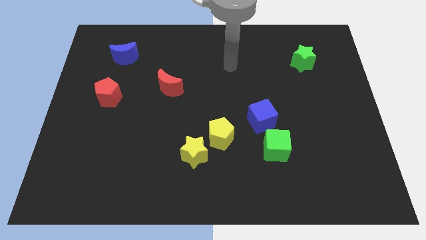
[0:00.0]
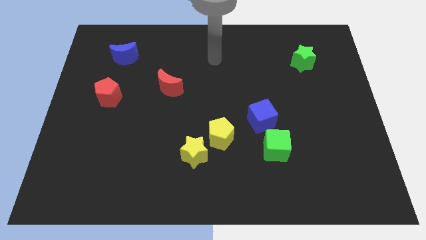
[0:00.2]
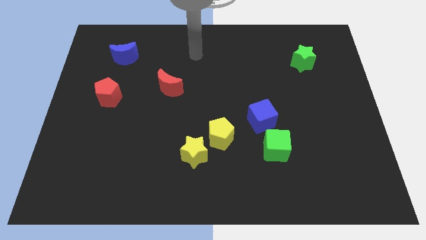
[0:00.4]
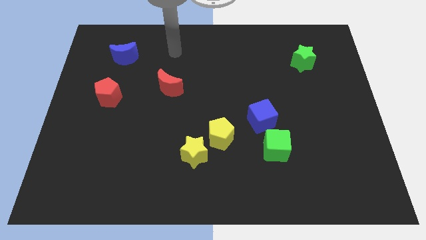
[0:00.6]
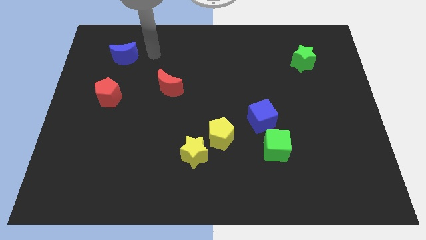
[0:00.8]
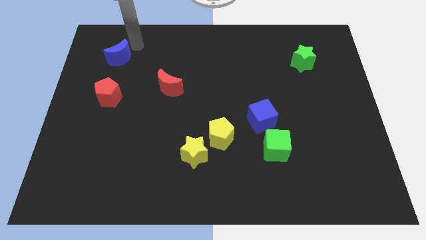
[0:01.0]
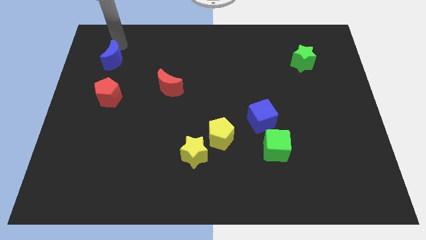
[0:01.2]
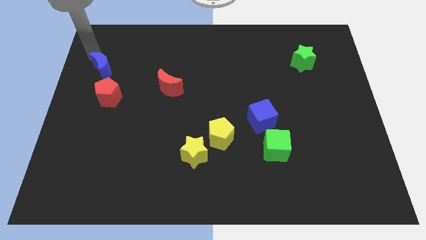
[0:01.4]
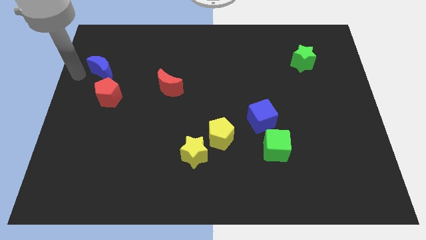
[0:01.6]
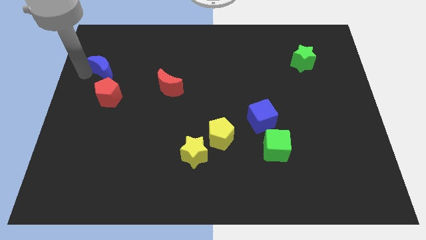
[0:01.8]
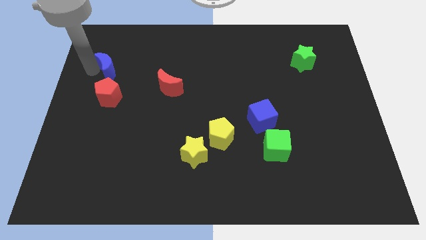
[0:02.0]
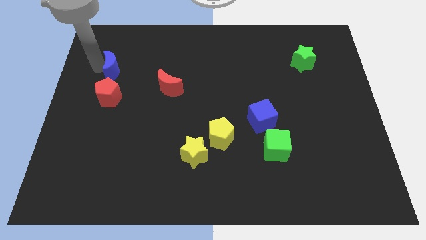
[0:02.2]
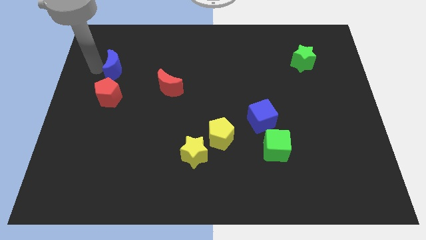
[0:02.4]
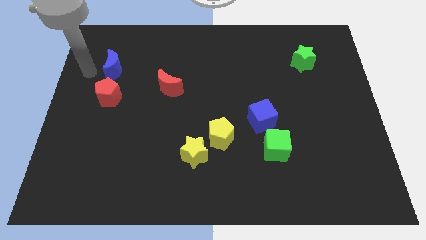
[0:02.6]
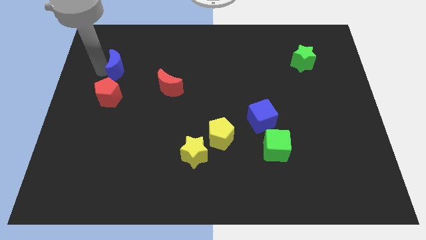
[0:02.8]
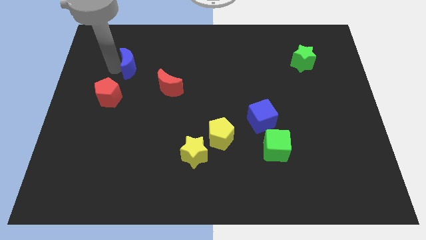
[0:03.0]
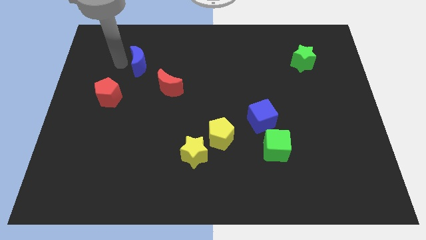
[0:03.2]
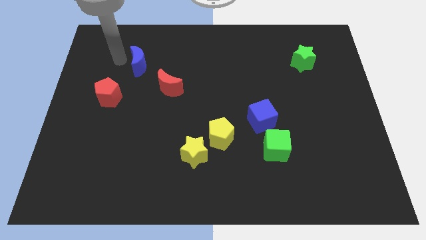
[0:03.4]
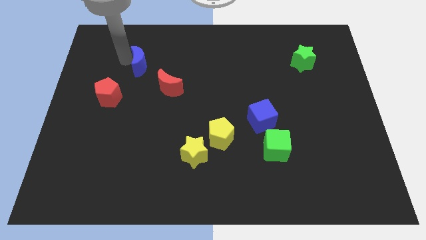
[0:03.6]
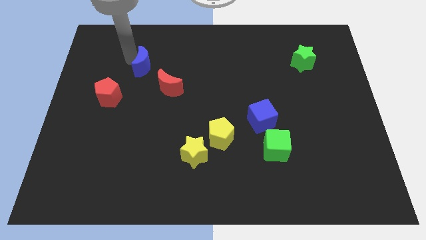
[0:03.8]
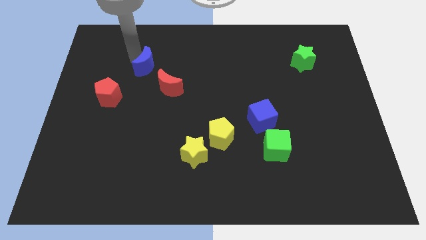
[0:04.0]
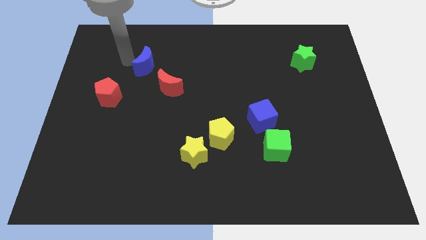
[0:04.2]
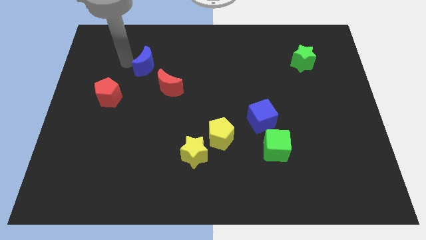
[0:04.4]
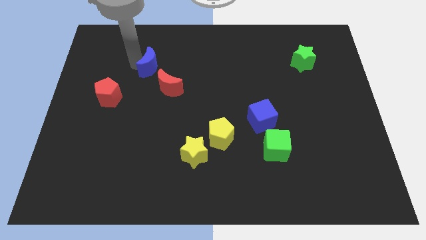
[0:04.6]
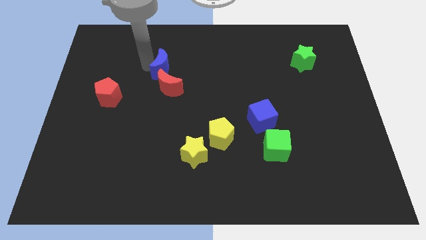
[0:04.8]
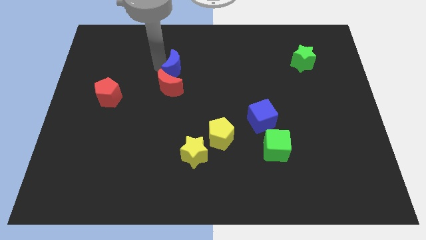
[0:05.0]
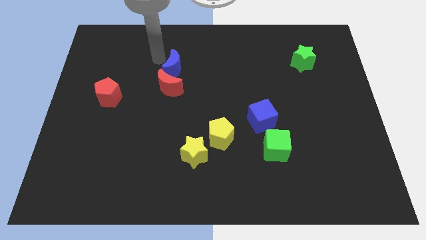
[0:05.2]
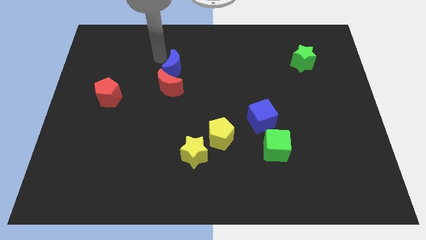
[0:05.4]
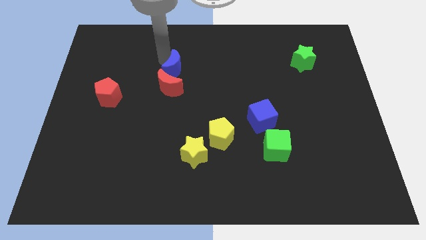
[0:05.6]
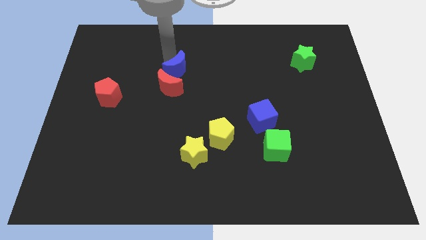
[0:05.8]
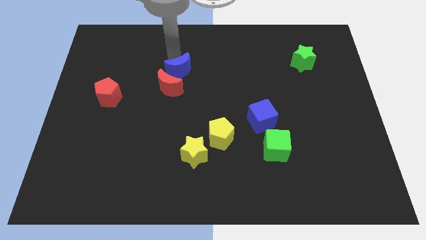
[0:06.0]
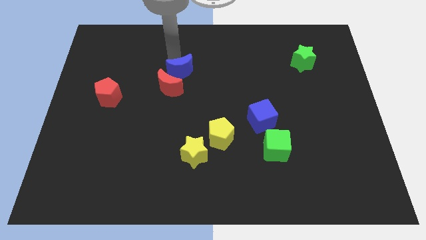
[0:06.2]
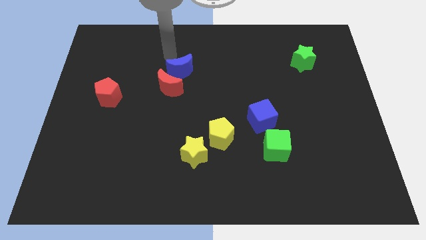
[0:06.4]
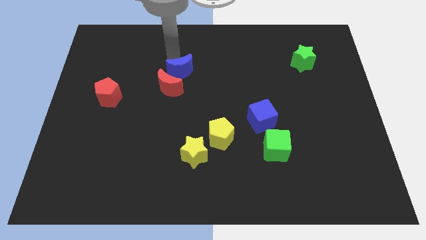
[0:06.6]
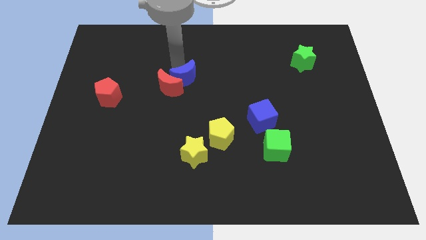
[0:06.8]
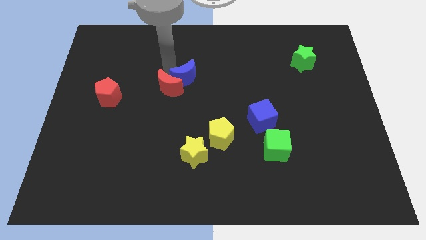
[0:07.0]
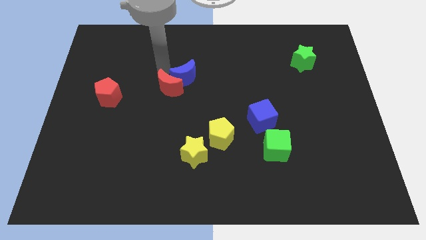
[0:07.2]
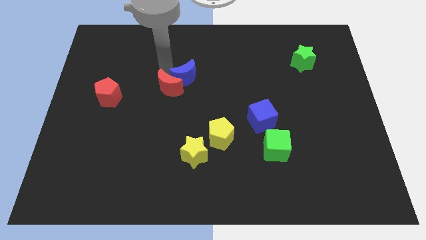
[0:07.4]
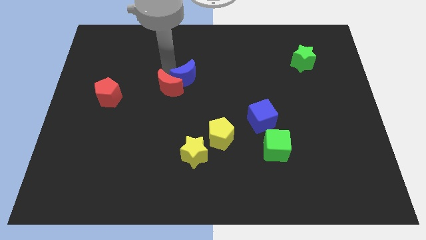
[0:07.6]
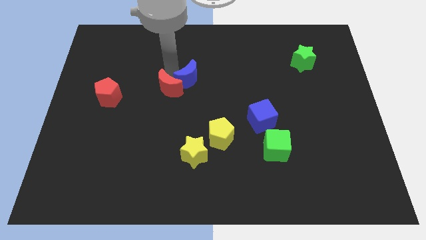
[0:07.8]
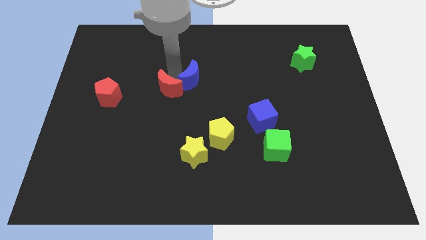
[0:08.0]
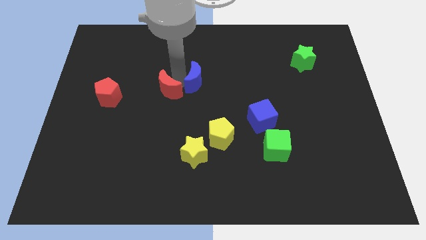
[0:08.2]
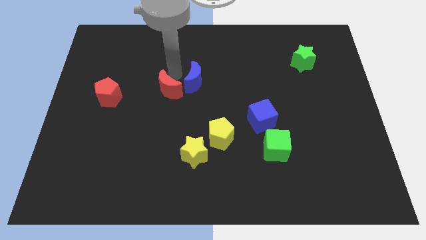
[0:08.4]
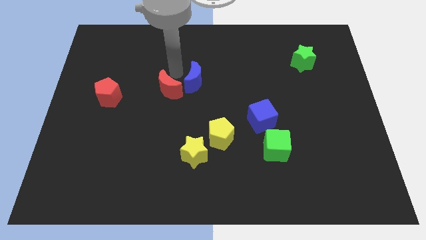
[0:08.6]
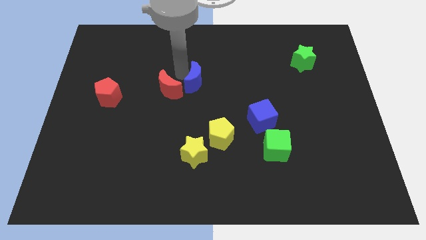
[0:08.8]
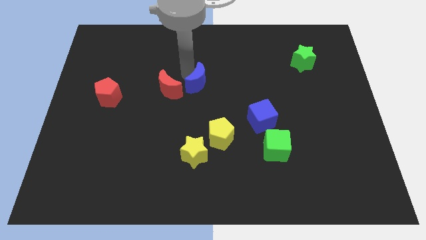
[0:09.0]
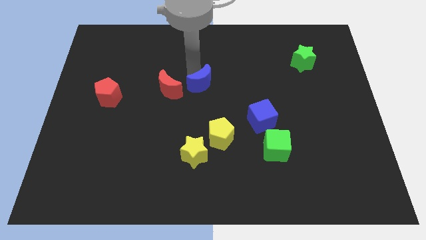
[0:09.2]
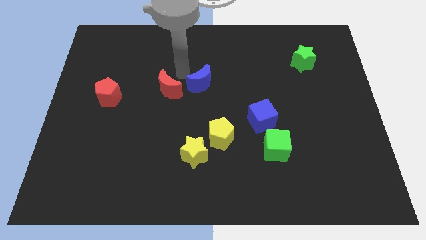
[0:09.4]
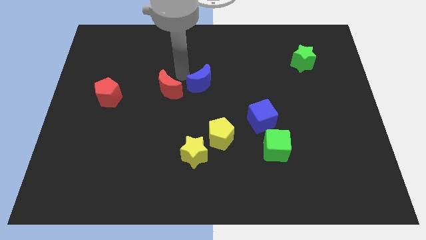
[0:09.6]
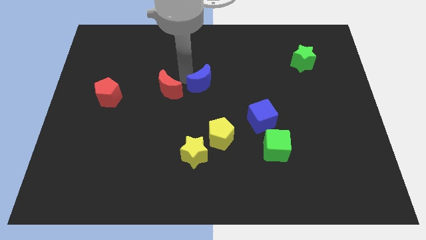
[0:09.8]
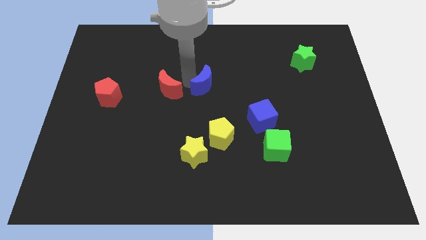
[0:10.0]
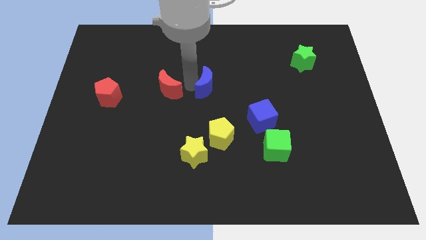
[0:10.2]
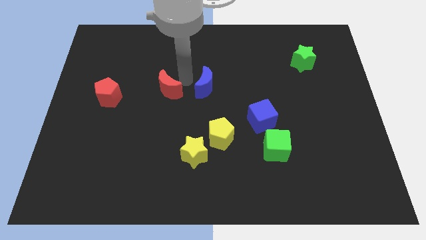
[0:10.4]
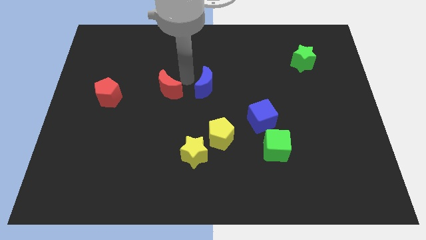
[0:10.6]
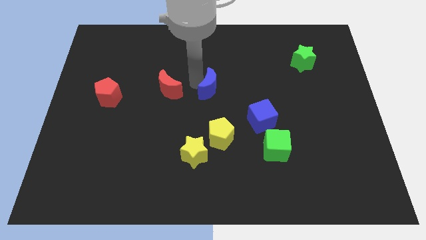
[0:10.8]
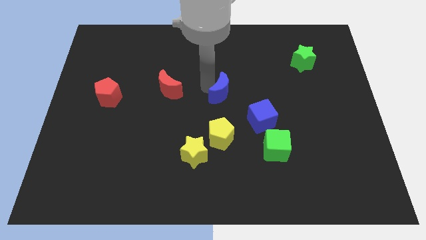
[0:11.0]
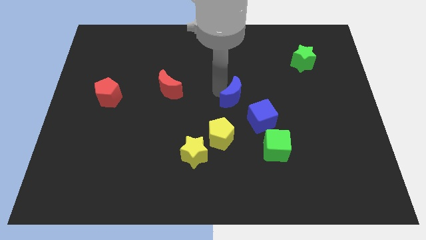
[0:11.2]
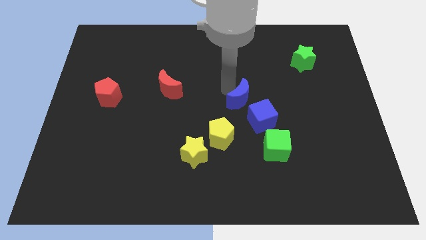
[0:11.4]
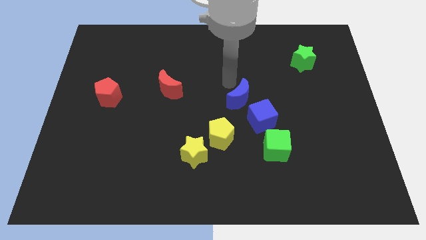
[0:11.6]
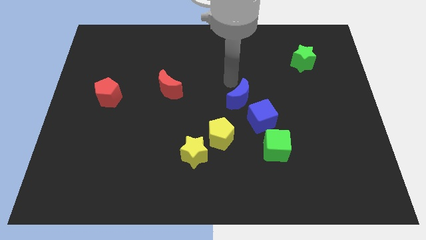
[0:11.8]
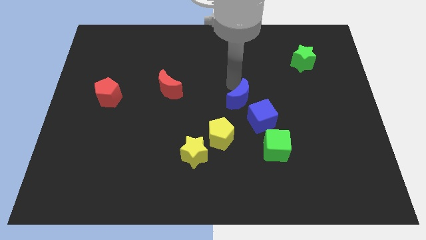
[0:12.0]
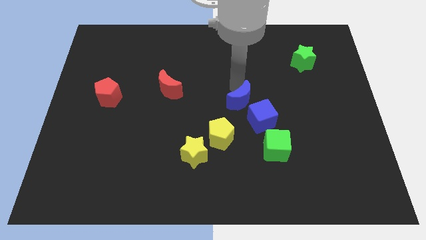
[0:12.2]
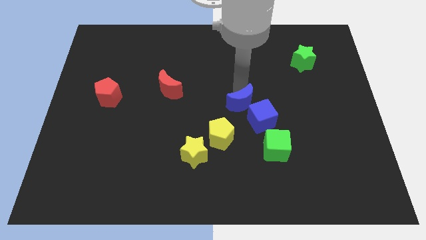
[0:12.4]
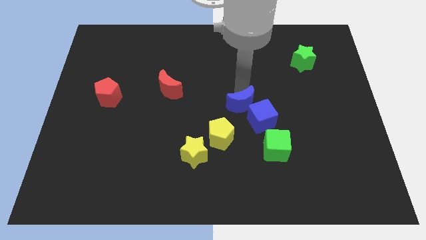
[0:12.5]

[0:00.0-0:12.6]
move the blue moon to the blue cube

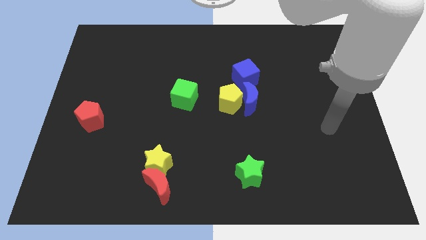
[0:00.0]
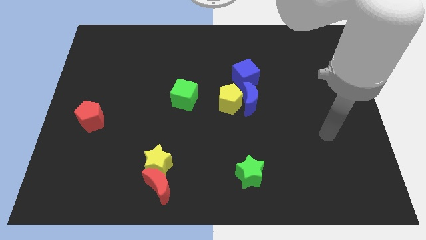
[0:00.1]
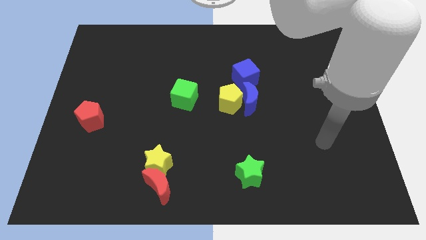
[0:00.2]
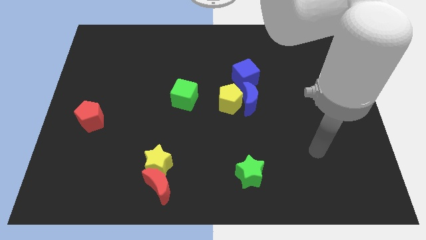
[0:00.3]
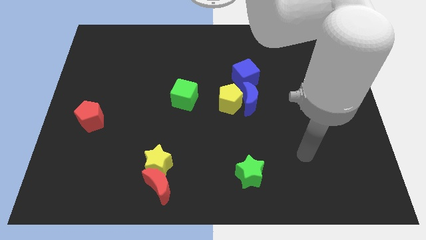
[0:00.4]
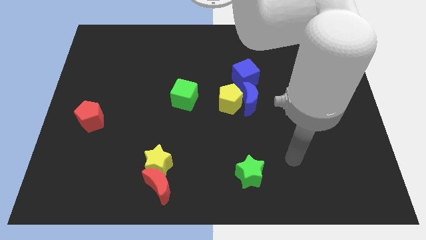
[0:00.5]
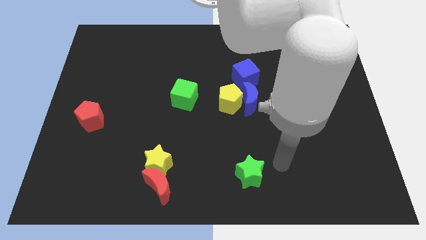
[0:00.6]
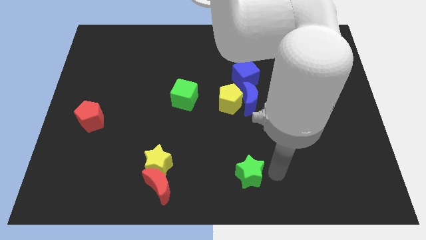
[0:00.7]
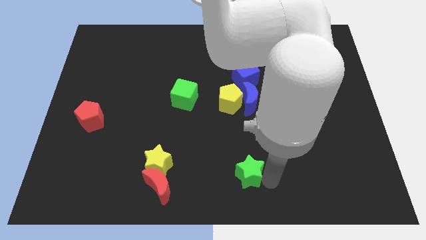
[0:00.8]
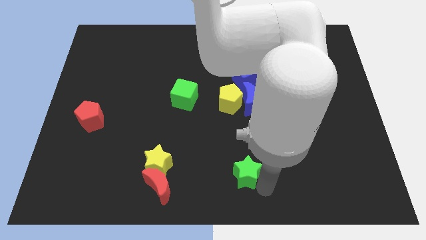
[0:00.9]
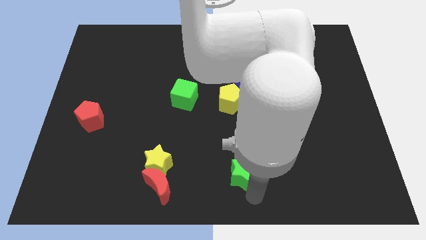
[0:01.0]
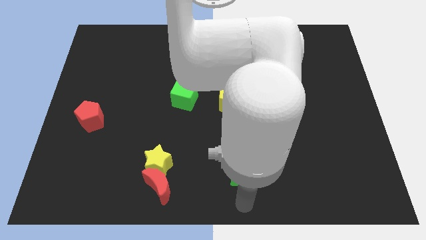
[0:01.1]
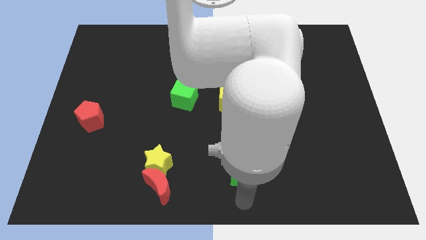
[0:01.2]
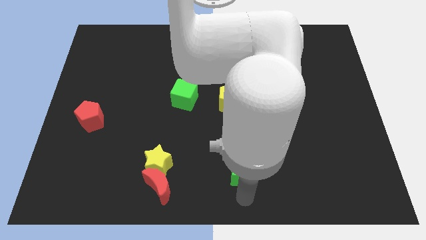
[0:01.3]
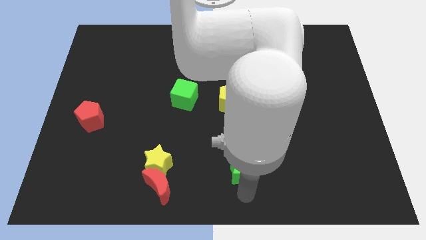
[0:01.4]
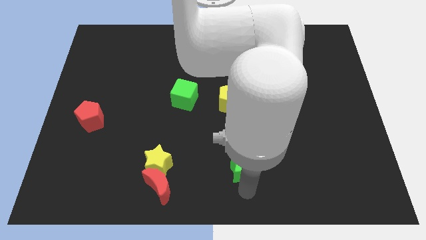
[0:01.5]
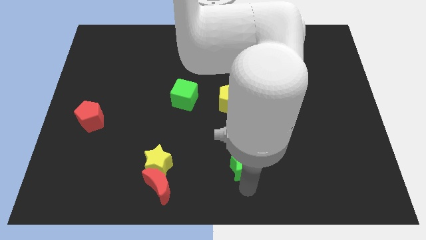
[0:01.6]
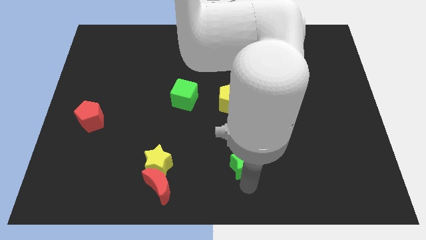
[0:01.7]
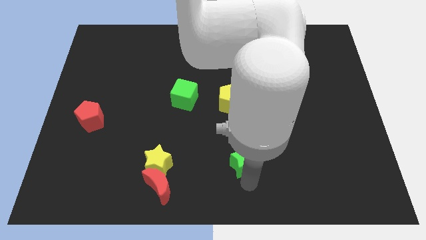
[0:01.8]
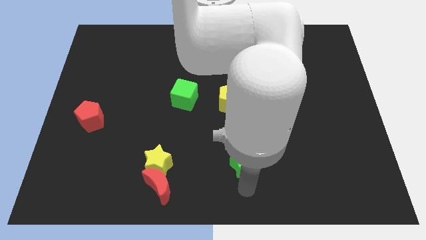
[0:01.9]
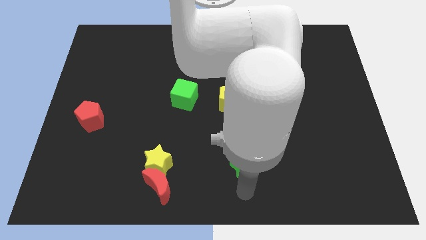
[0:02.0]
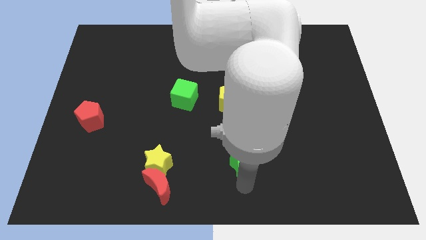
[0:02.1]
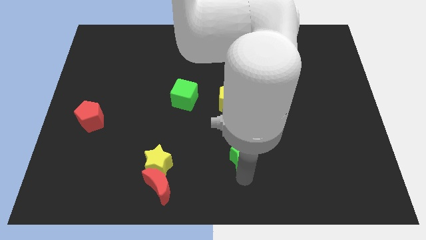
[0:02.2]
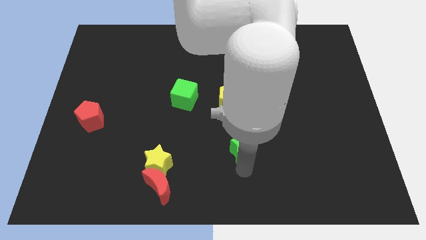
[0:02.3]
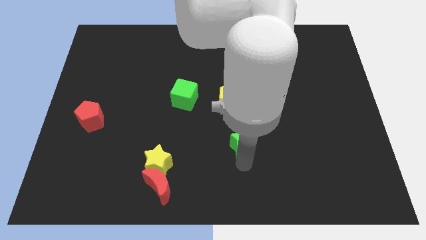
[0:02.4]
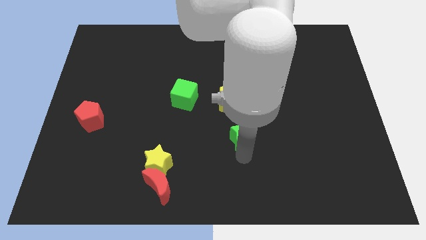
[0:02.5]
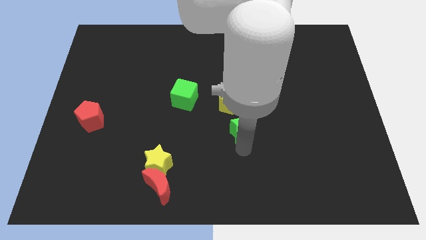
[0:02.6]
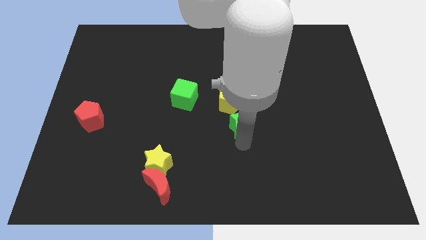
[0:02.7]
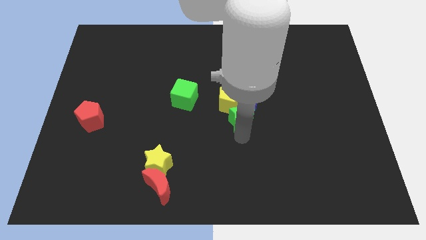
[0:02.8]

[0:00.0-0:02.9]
push the green star close to the blue moon
